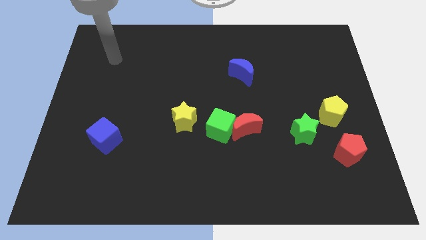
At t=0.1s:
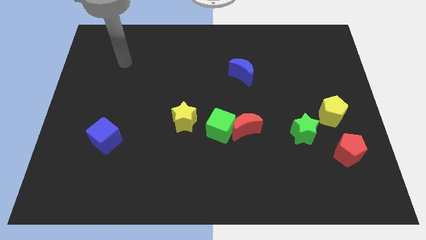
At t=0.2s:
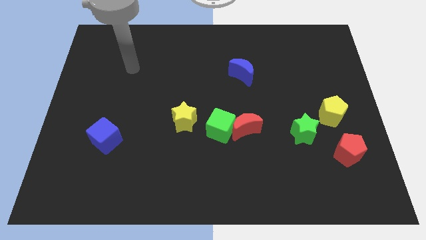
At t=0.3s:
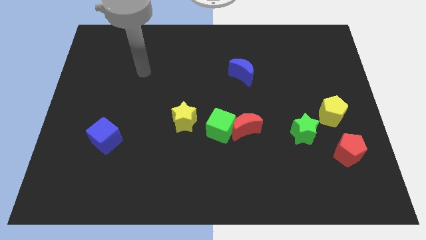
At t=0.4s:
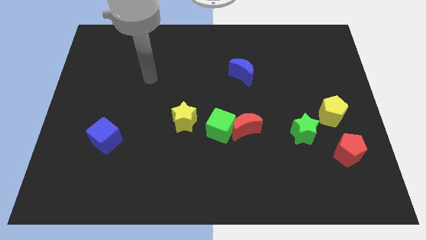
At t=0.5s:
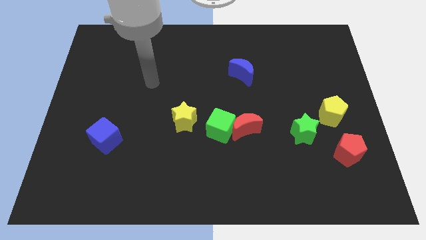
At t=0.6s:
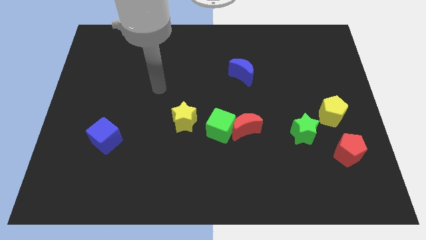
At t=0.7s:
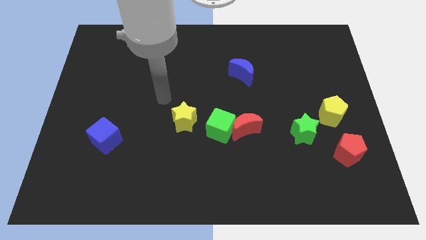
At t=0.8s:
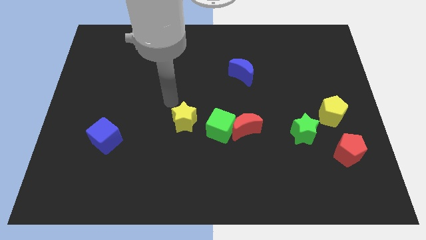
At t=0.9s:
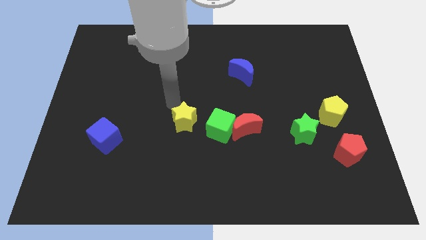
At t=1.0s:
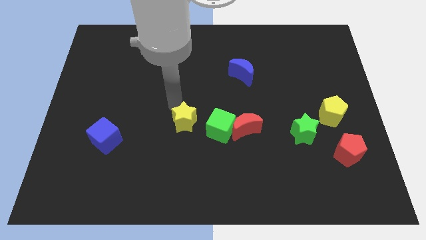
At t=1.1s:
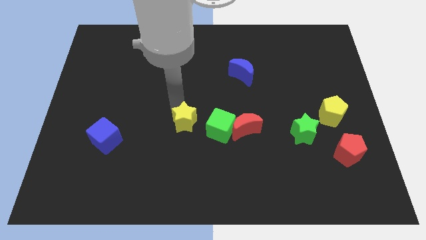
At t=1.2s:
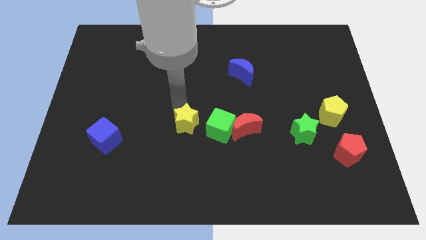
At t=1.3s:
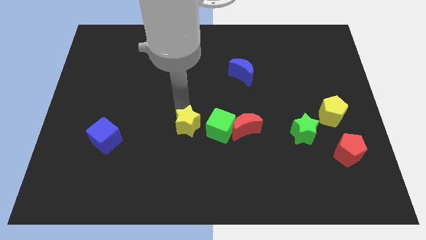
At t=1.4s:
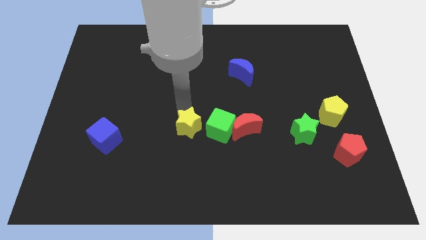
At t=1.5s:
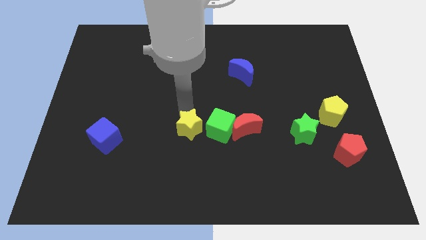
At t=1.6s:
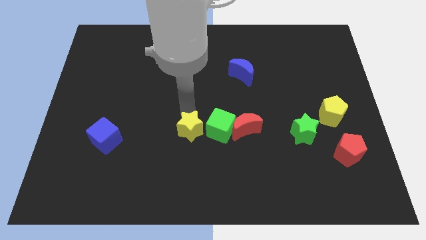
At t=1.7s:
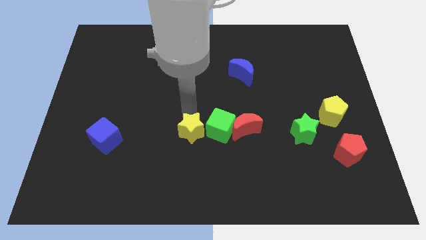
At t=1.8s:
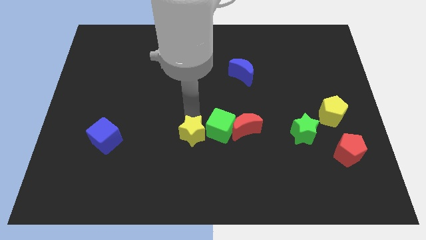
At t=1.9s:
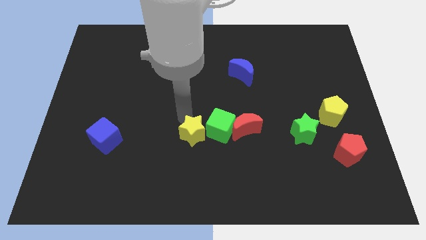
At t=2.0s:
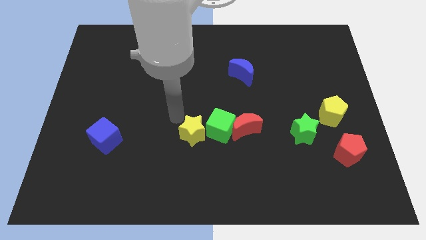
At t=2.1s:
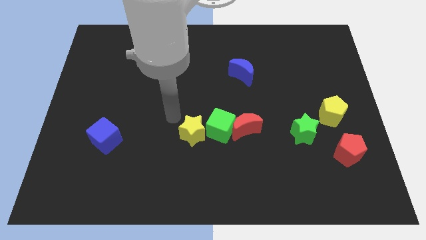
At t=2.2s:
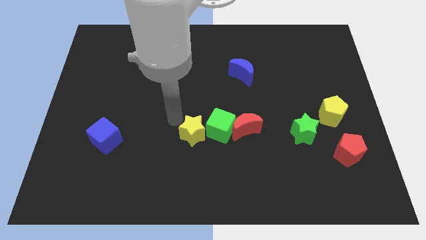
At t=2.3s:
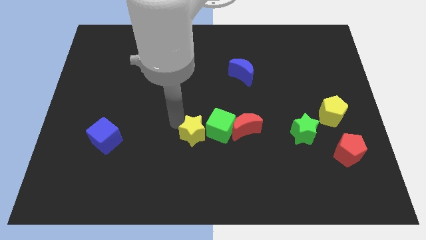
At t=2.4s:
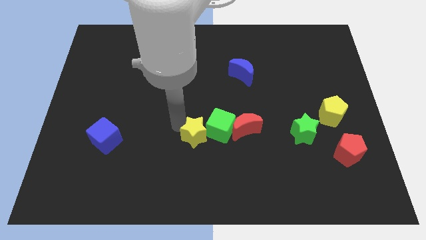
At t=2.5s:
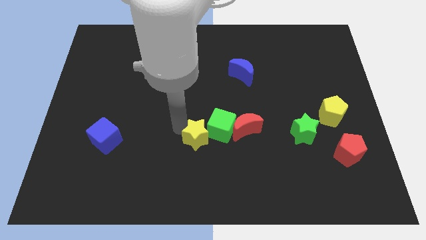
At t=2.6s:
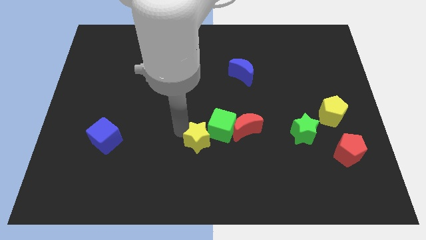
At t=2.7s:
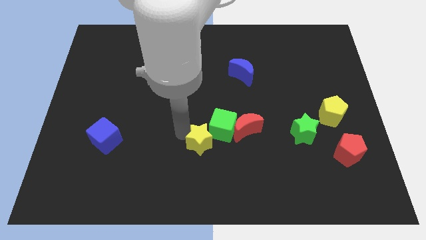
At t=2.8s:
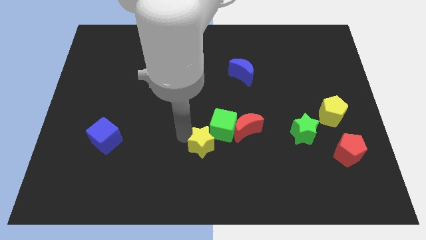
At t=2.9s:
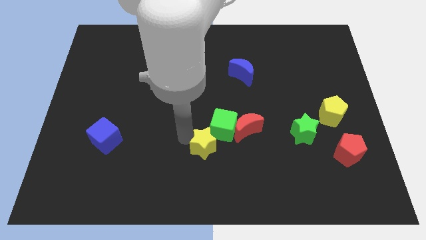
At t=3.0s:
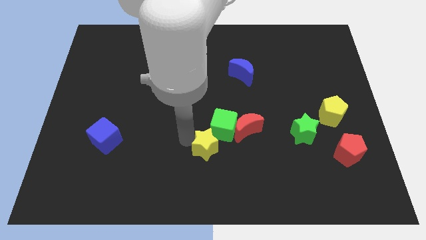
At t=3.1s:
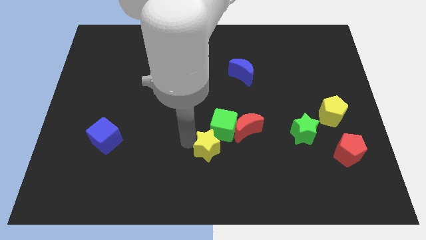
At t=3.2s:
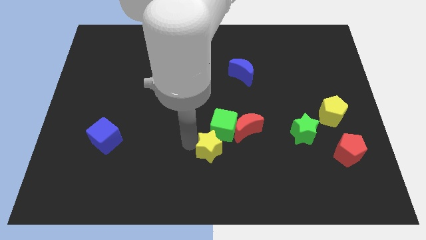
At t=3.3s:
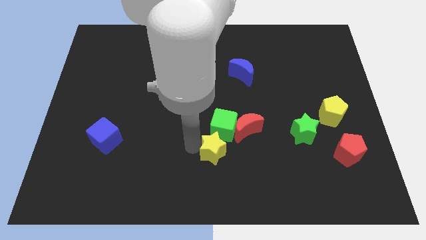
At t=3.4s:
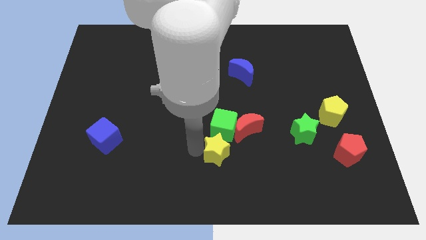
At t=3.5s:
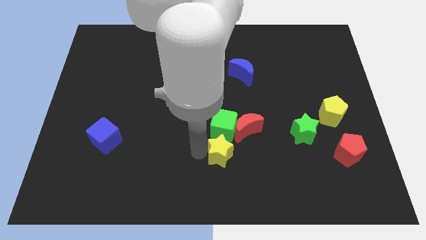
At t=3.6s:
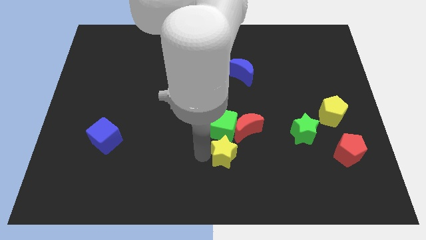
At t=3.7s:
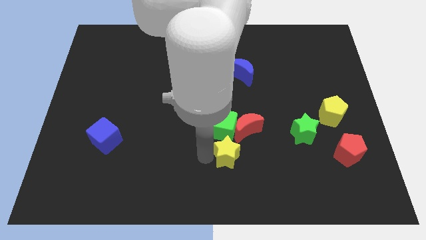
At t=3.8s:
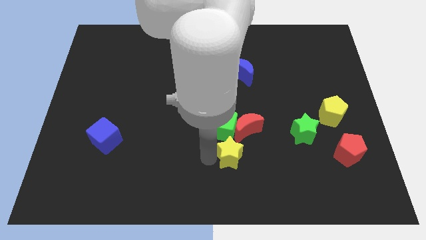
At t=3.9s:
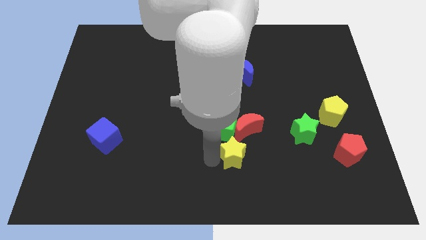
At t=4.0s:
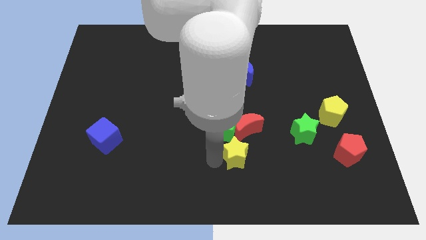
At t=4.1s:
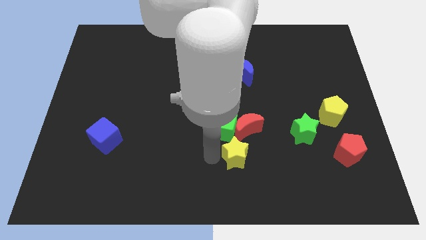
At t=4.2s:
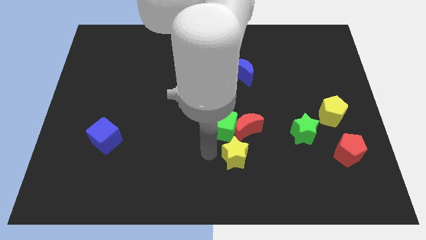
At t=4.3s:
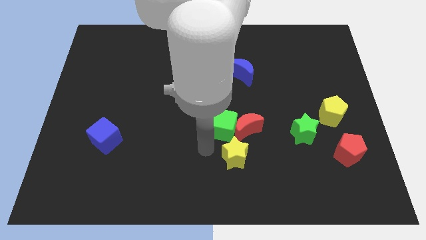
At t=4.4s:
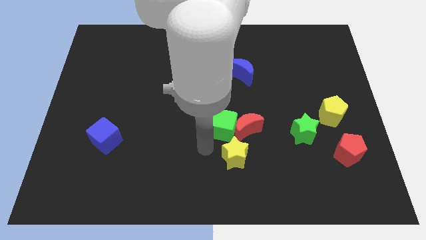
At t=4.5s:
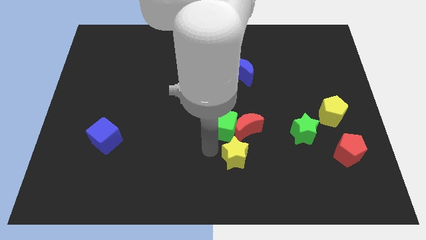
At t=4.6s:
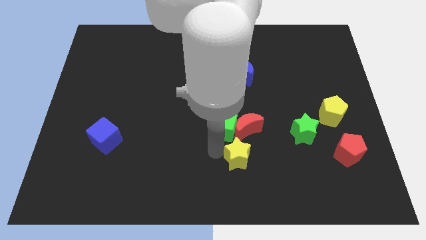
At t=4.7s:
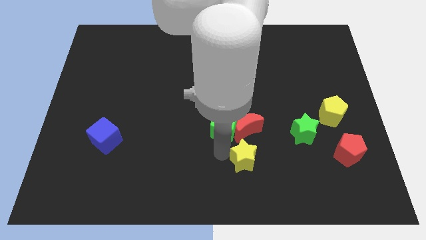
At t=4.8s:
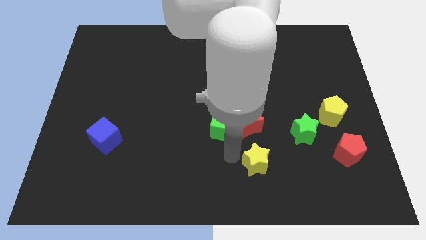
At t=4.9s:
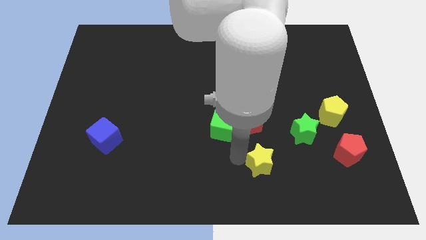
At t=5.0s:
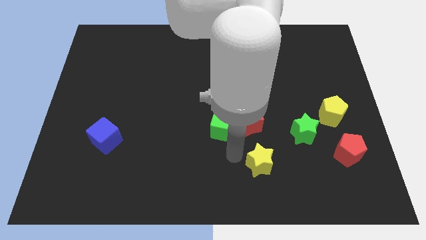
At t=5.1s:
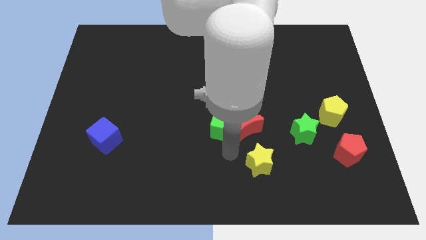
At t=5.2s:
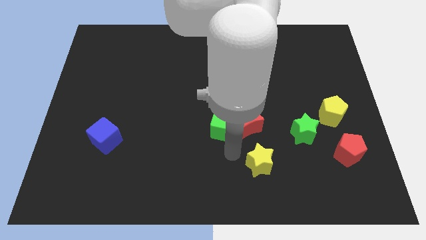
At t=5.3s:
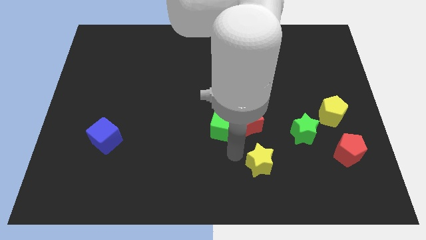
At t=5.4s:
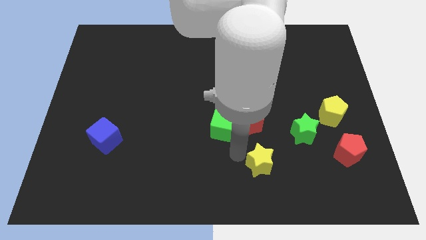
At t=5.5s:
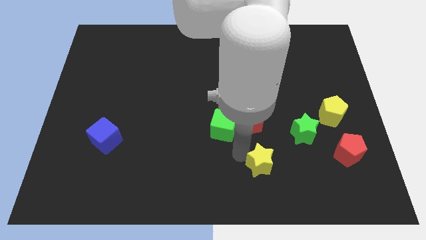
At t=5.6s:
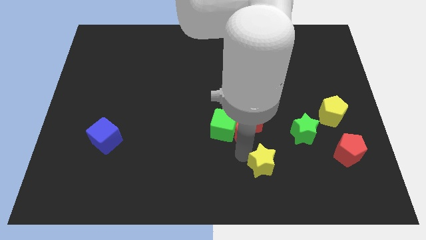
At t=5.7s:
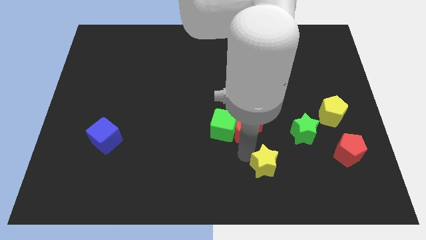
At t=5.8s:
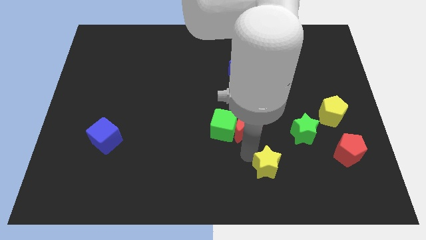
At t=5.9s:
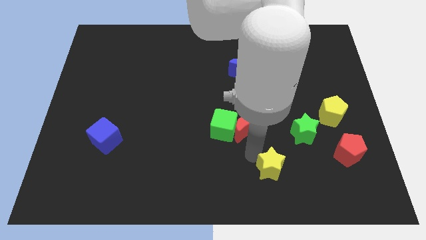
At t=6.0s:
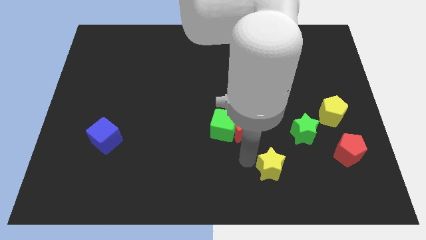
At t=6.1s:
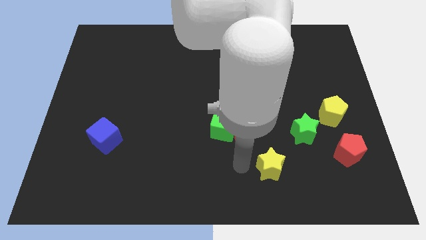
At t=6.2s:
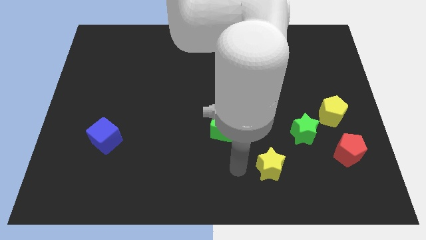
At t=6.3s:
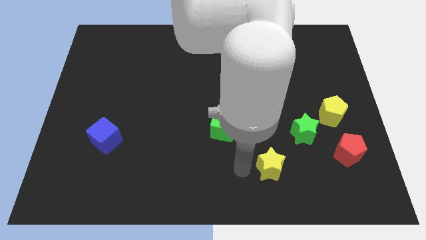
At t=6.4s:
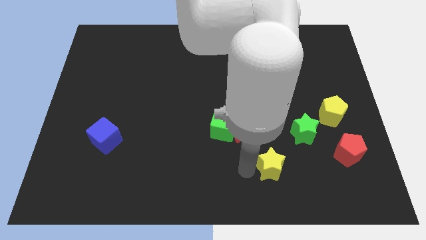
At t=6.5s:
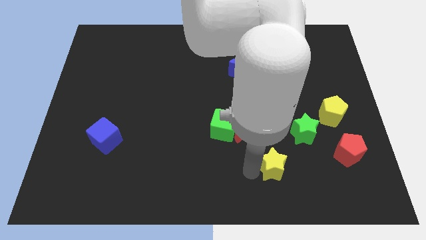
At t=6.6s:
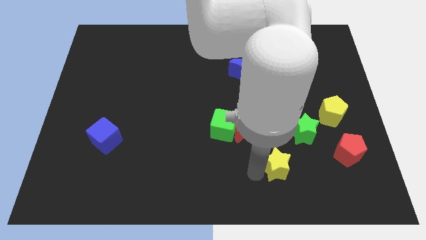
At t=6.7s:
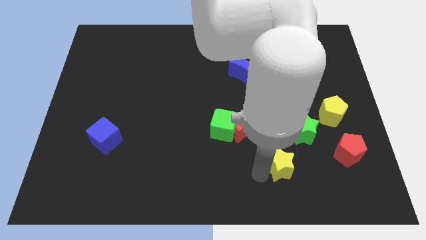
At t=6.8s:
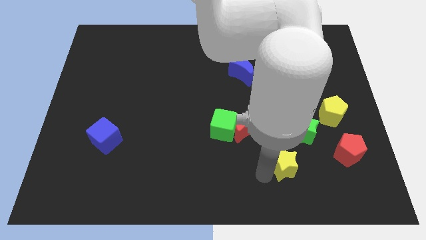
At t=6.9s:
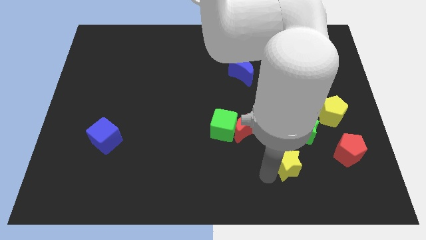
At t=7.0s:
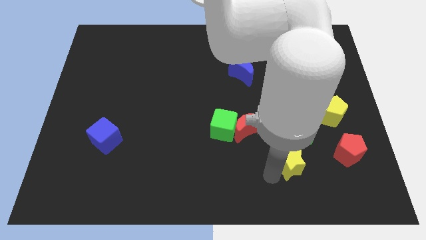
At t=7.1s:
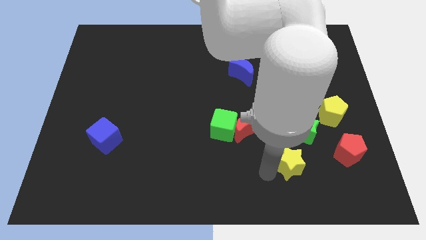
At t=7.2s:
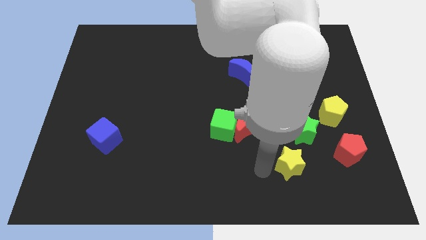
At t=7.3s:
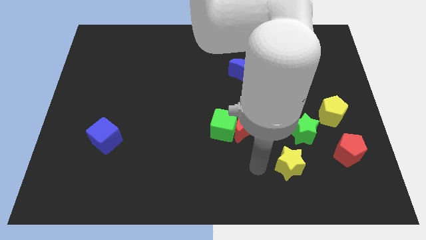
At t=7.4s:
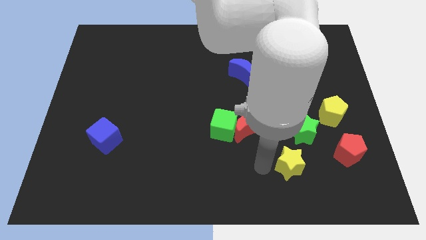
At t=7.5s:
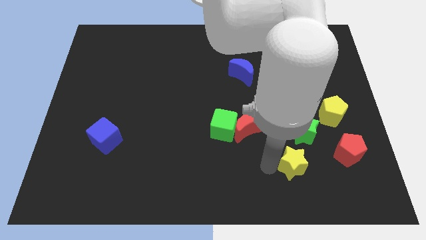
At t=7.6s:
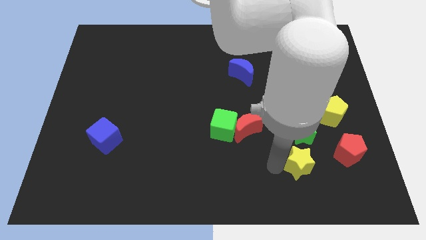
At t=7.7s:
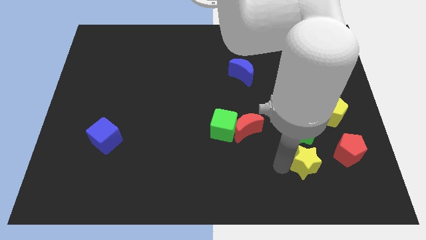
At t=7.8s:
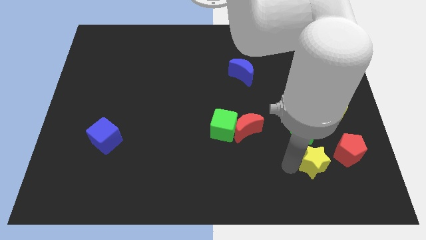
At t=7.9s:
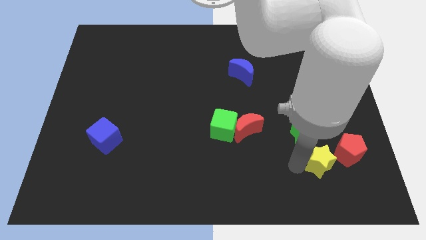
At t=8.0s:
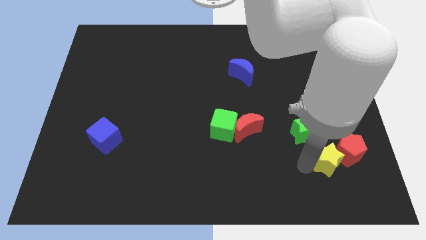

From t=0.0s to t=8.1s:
move the yellow star towards the red pentagon
